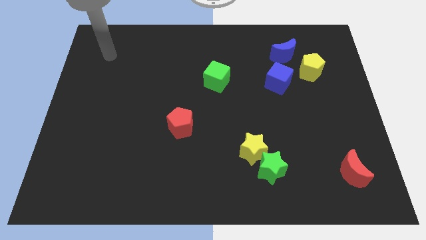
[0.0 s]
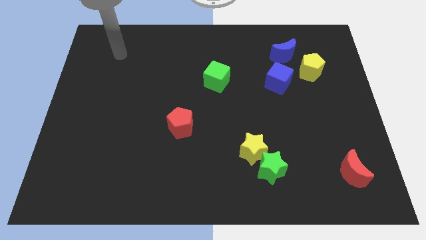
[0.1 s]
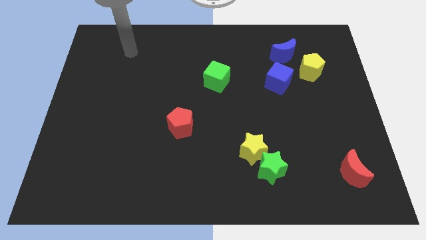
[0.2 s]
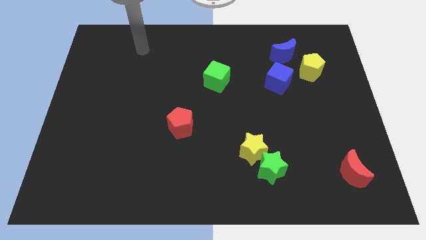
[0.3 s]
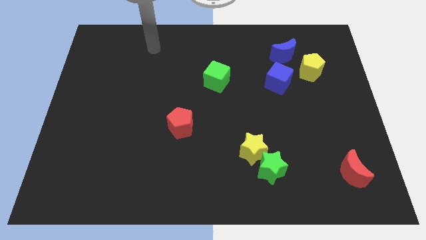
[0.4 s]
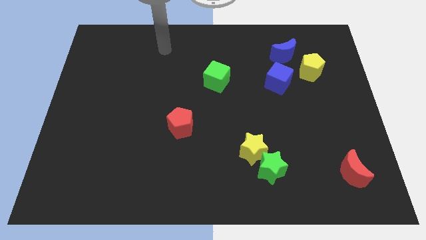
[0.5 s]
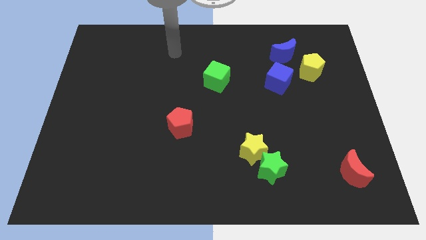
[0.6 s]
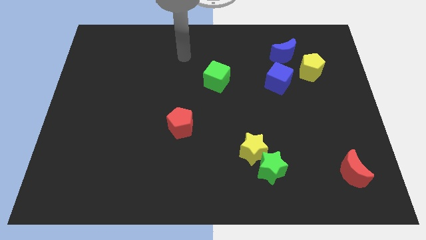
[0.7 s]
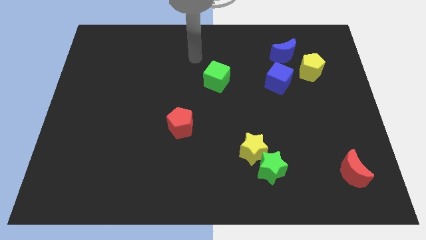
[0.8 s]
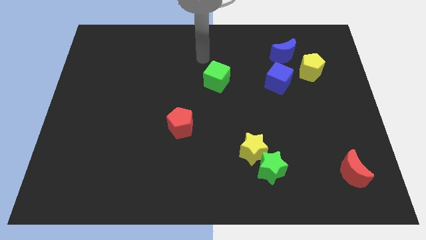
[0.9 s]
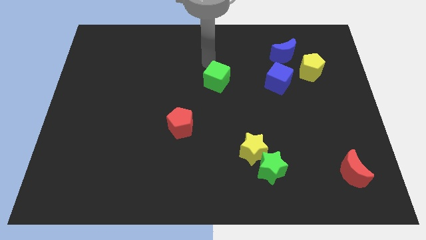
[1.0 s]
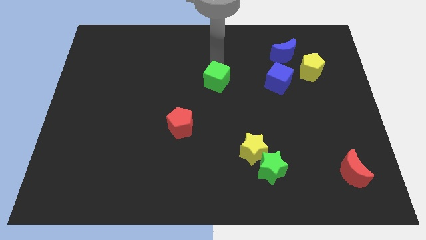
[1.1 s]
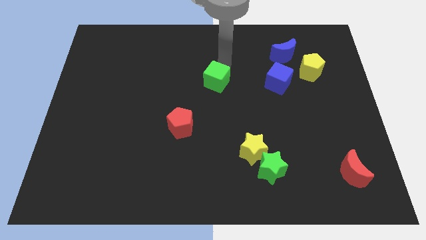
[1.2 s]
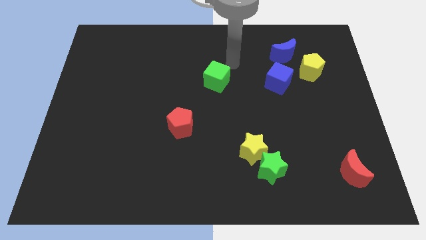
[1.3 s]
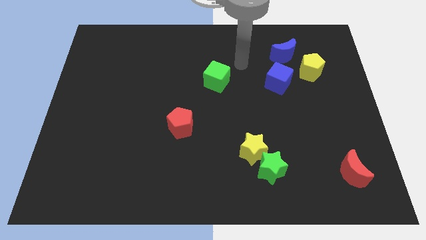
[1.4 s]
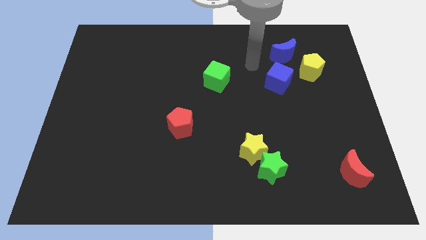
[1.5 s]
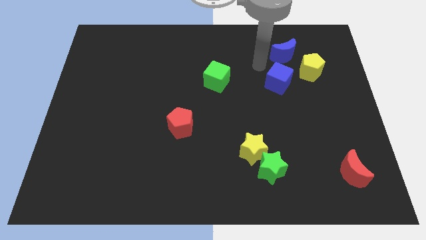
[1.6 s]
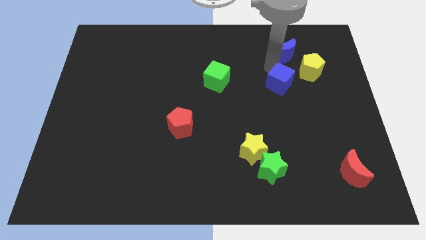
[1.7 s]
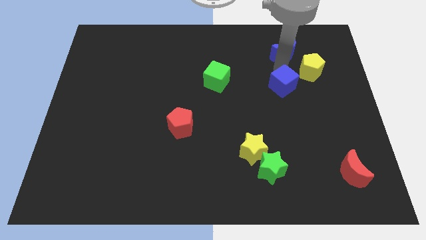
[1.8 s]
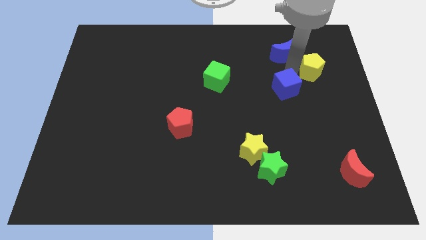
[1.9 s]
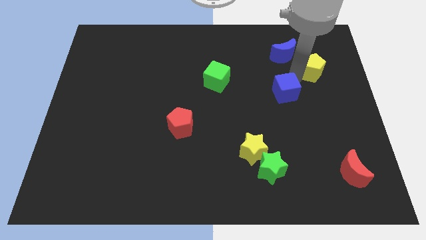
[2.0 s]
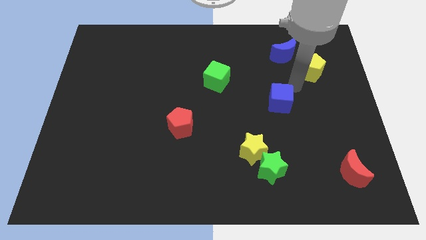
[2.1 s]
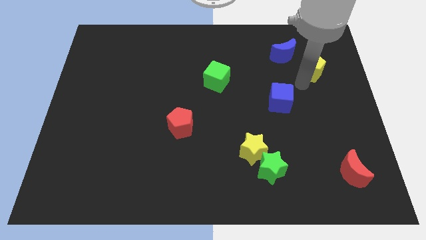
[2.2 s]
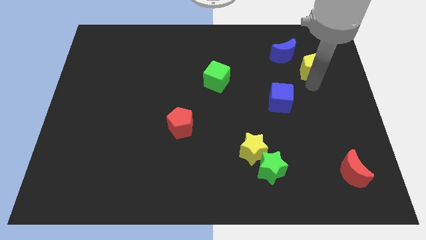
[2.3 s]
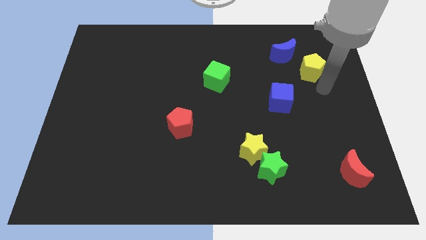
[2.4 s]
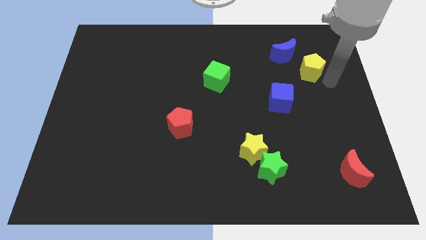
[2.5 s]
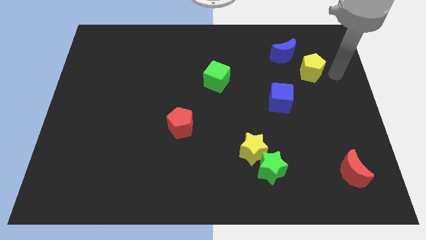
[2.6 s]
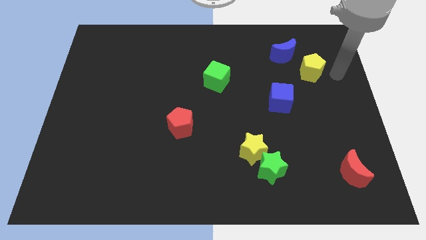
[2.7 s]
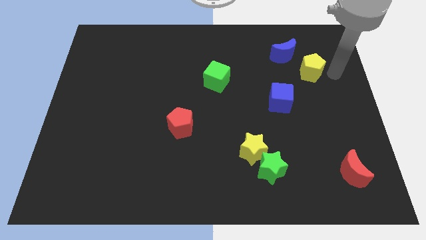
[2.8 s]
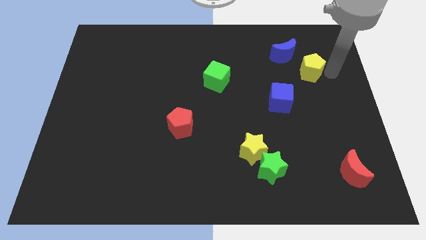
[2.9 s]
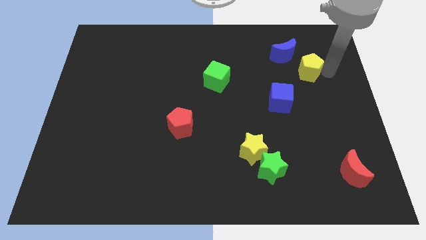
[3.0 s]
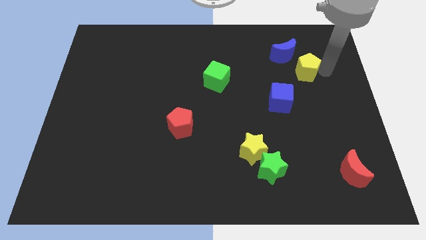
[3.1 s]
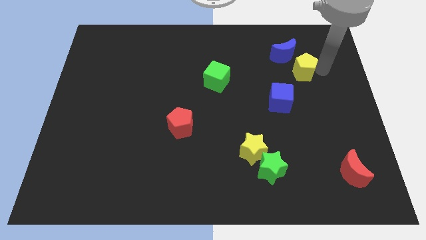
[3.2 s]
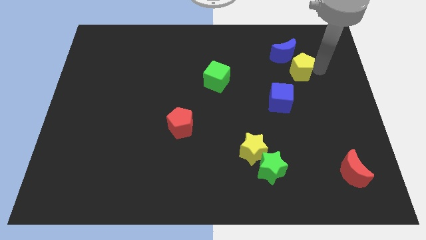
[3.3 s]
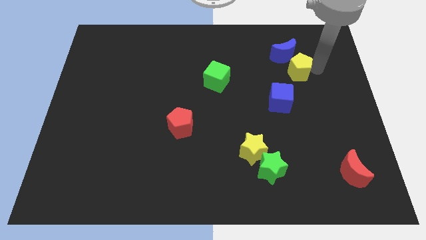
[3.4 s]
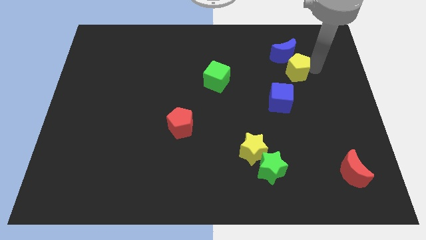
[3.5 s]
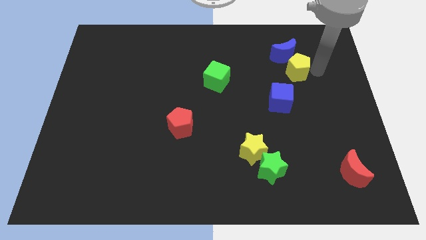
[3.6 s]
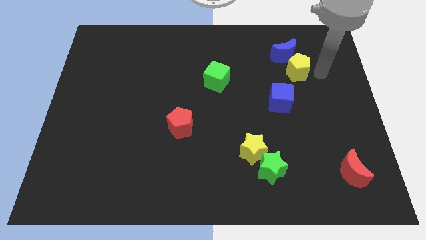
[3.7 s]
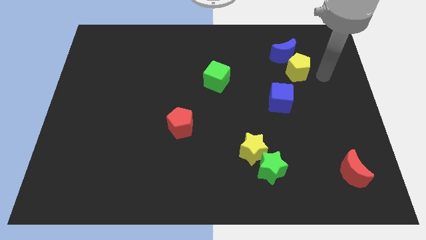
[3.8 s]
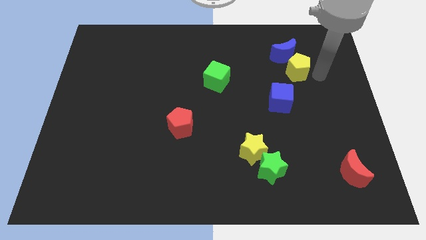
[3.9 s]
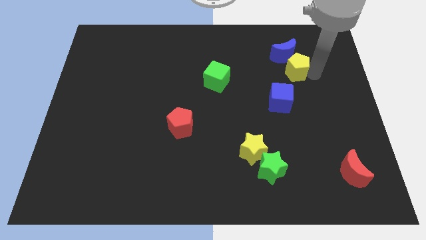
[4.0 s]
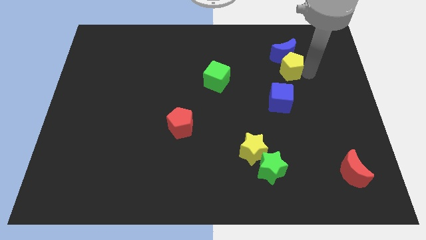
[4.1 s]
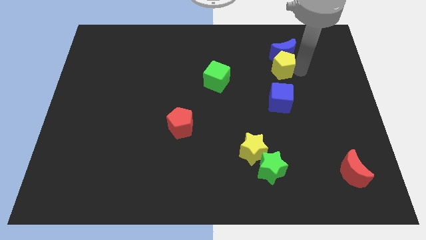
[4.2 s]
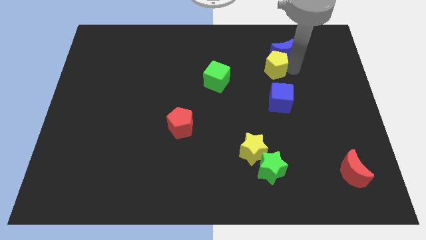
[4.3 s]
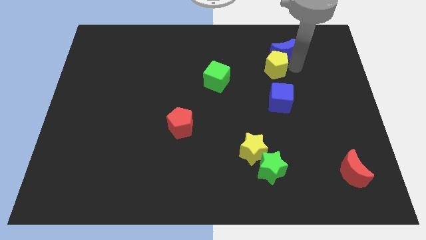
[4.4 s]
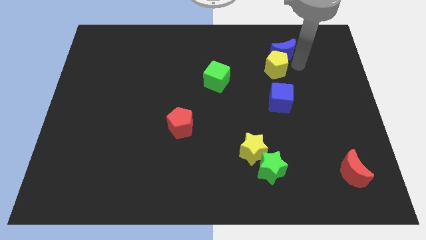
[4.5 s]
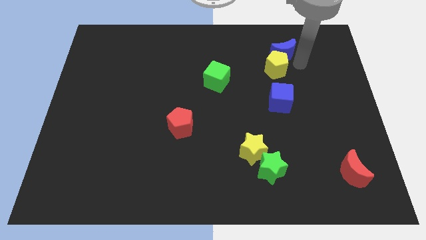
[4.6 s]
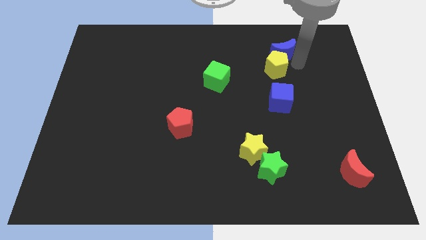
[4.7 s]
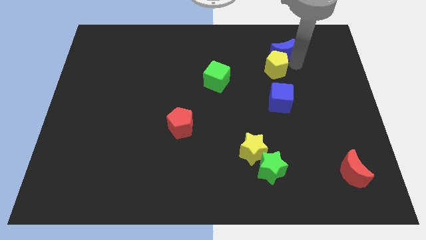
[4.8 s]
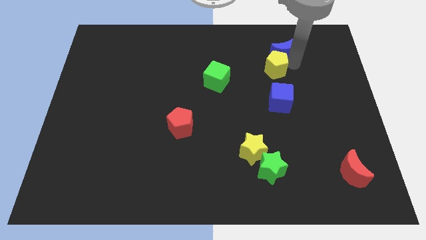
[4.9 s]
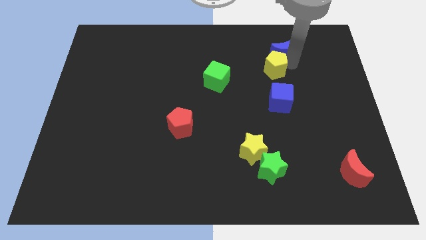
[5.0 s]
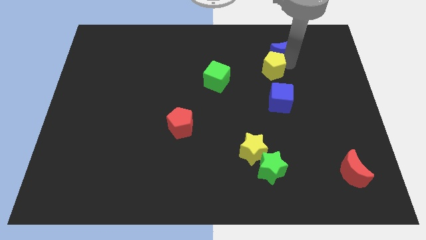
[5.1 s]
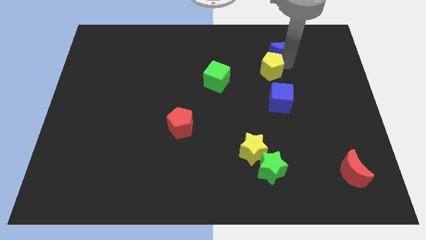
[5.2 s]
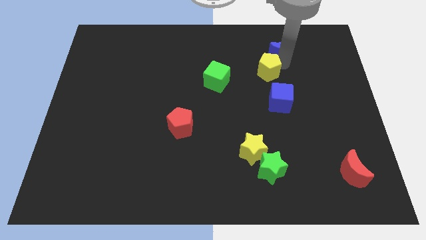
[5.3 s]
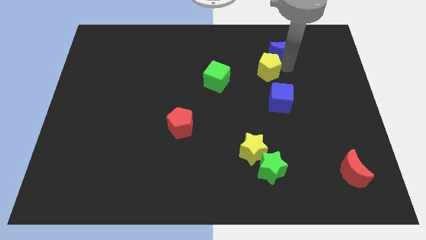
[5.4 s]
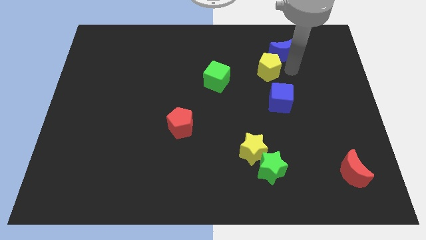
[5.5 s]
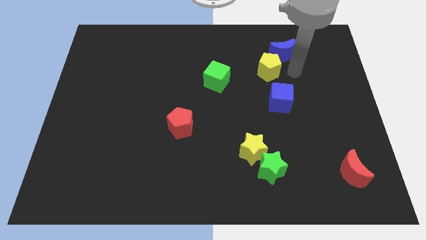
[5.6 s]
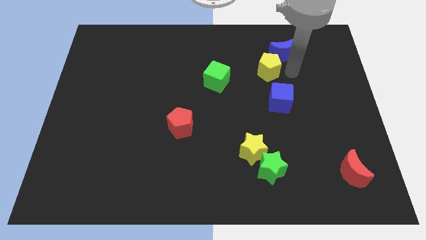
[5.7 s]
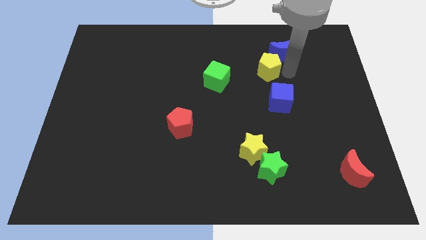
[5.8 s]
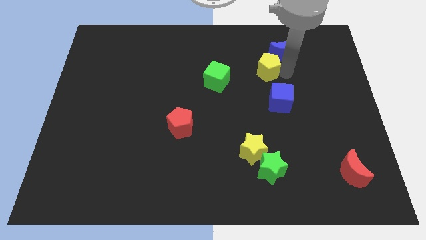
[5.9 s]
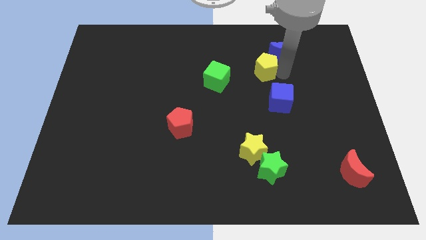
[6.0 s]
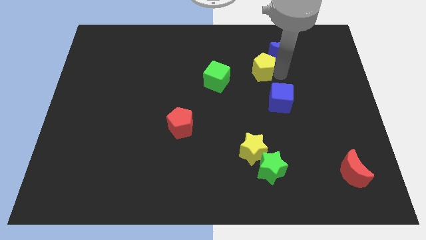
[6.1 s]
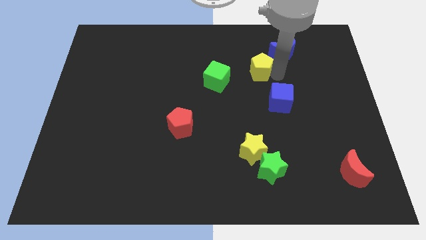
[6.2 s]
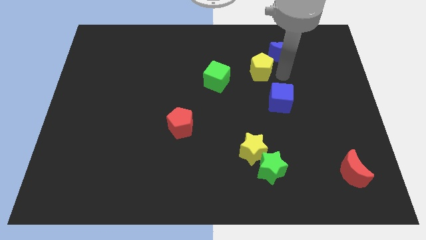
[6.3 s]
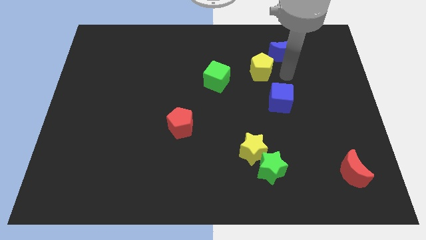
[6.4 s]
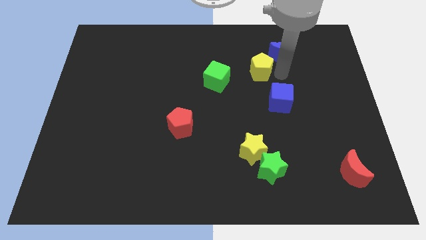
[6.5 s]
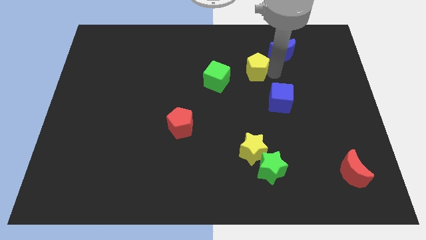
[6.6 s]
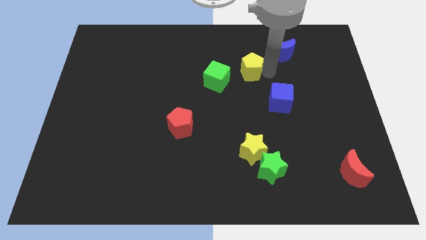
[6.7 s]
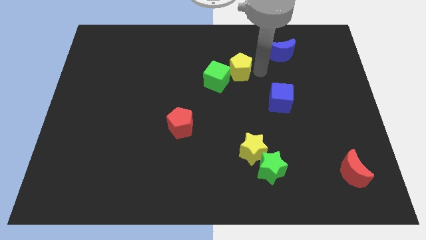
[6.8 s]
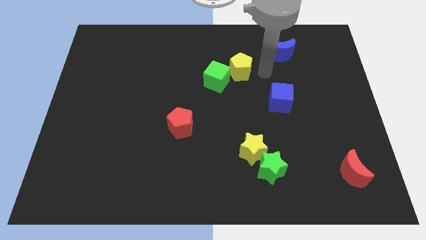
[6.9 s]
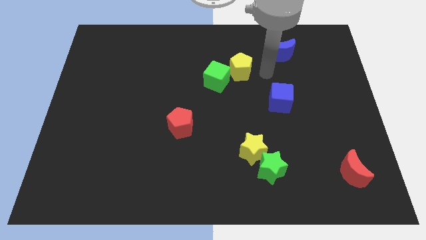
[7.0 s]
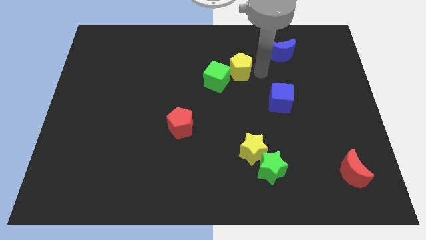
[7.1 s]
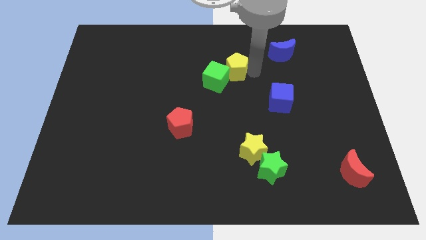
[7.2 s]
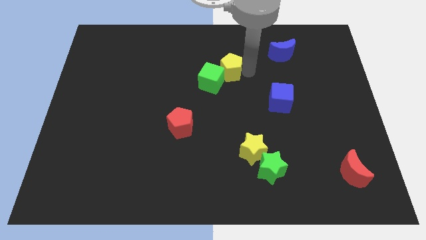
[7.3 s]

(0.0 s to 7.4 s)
push the yellow pentagon to the left

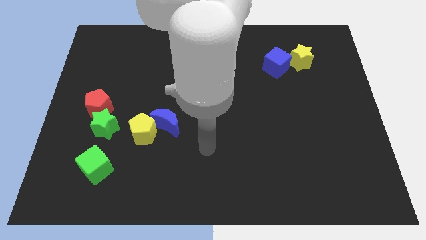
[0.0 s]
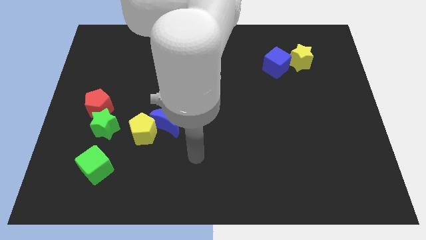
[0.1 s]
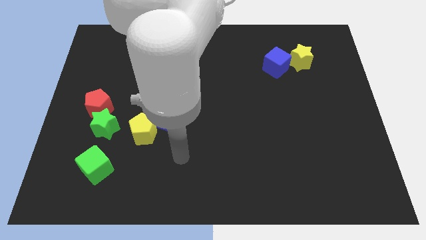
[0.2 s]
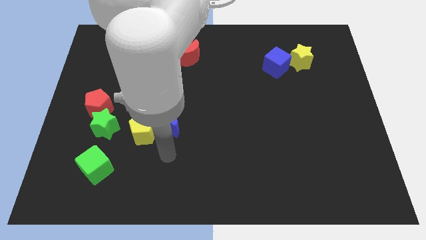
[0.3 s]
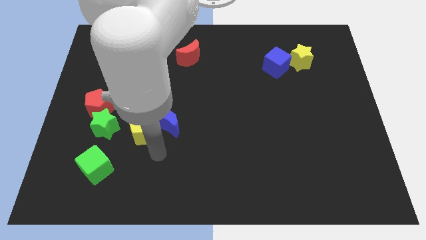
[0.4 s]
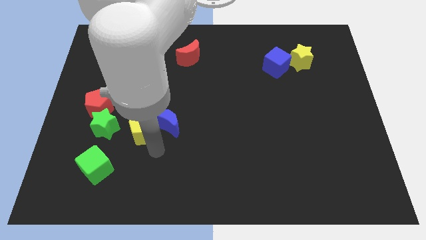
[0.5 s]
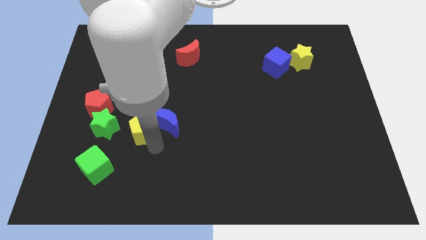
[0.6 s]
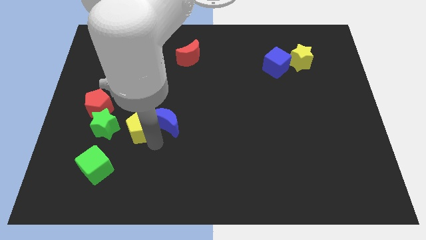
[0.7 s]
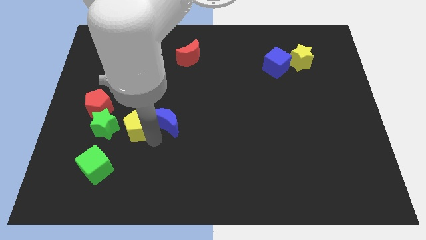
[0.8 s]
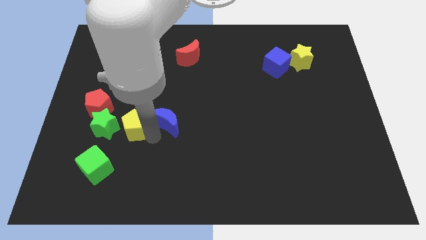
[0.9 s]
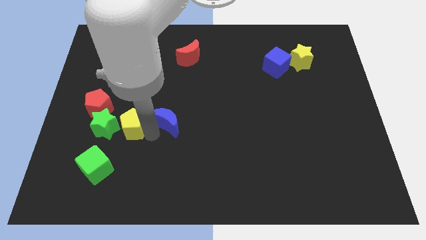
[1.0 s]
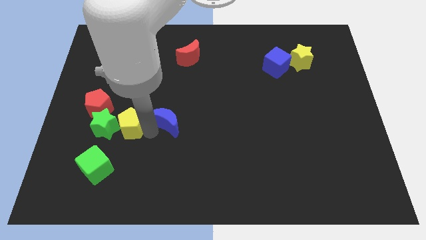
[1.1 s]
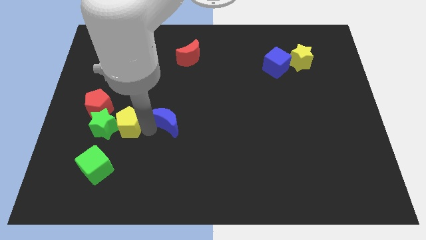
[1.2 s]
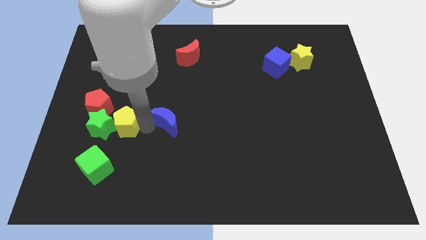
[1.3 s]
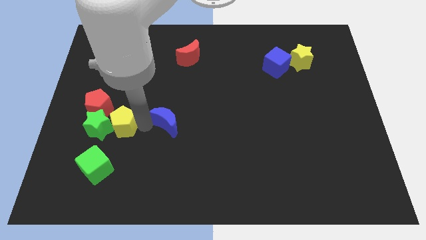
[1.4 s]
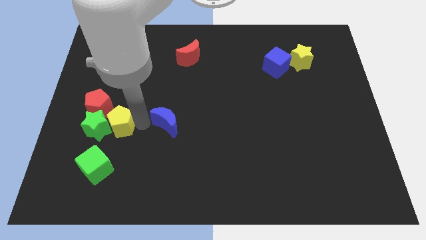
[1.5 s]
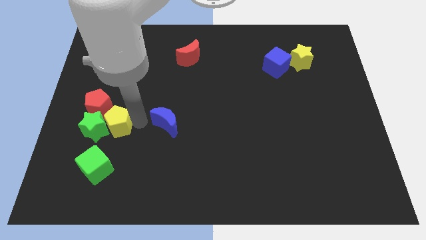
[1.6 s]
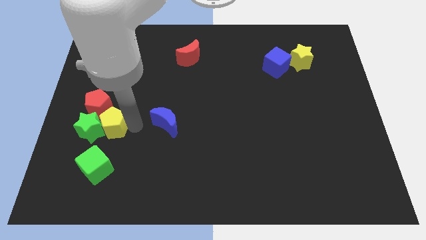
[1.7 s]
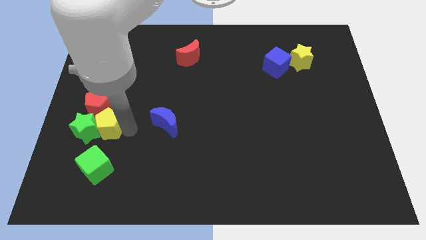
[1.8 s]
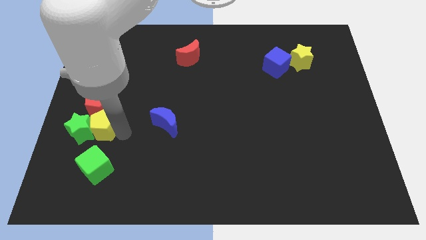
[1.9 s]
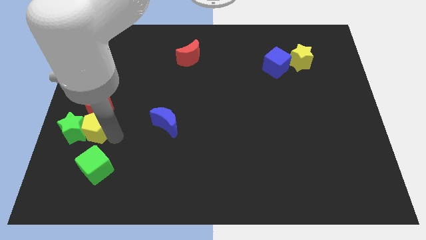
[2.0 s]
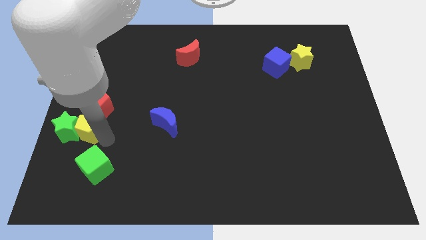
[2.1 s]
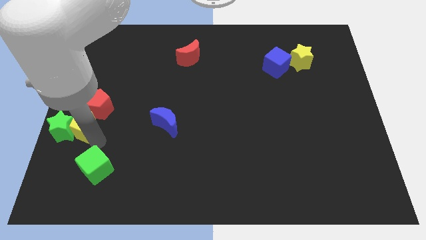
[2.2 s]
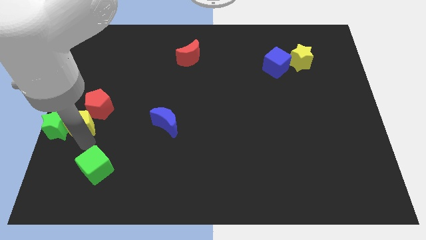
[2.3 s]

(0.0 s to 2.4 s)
push the yellow pentagon a bit upwards and then to the left
